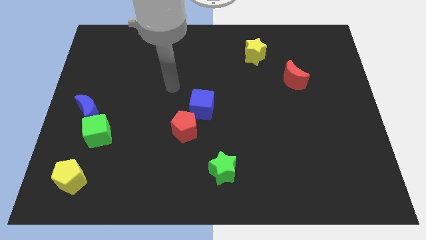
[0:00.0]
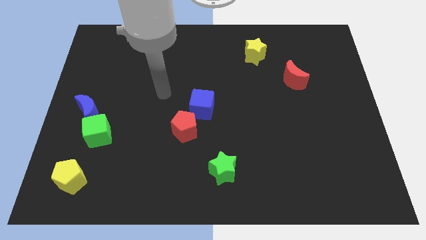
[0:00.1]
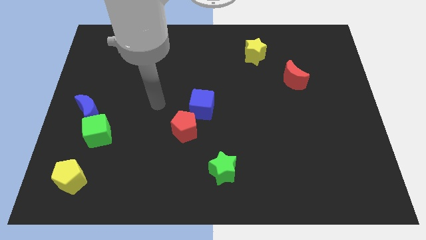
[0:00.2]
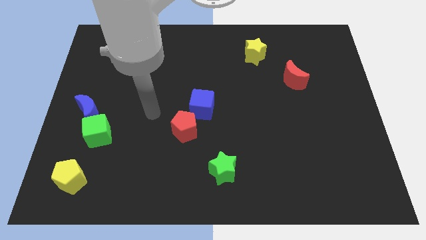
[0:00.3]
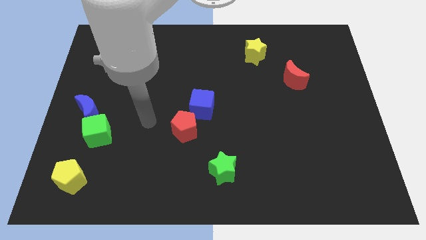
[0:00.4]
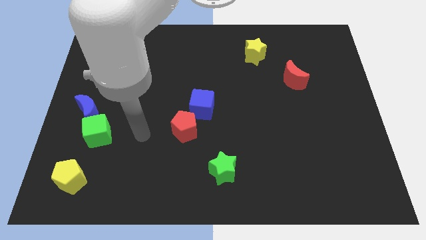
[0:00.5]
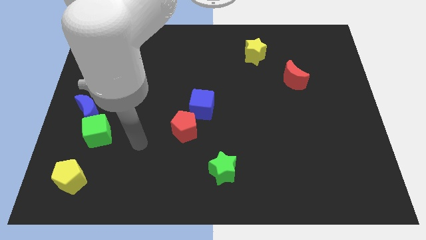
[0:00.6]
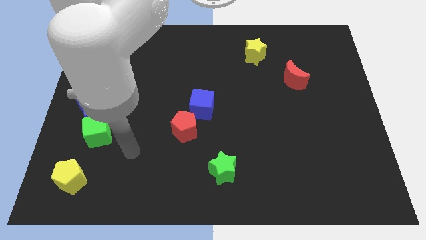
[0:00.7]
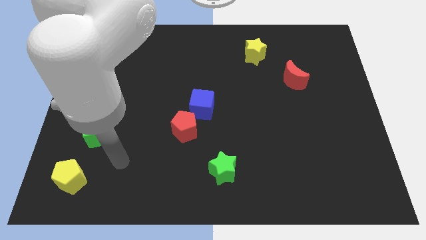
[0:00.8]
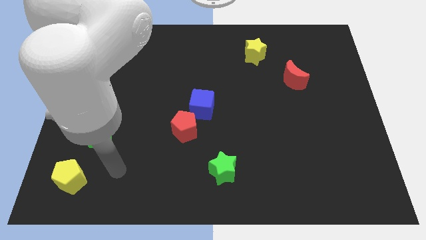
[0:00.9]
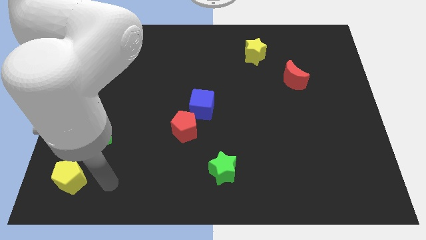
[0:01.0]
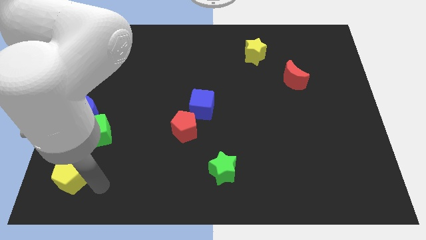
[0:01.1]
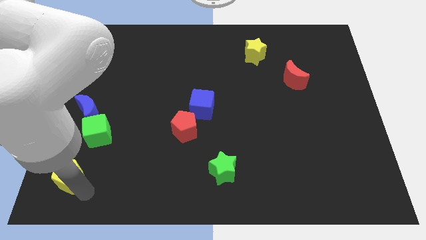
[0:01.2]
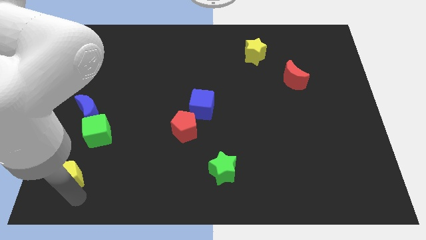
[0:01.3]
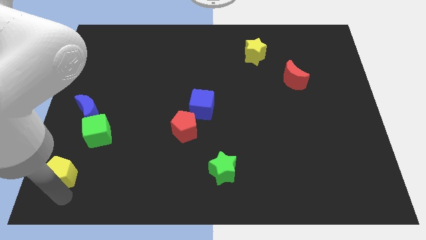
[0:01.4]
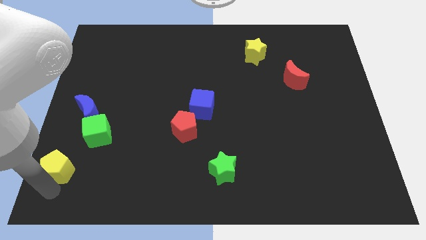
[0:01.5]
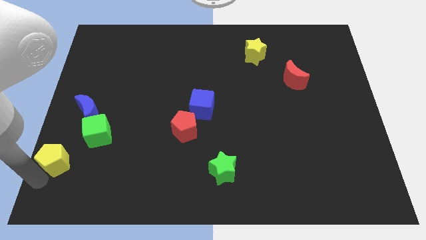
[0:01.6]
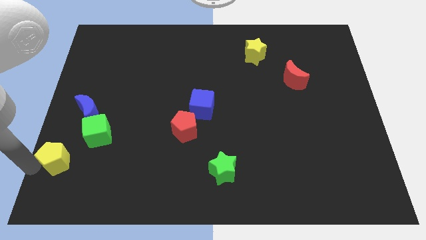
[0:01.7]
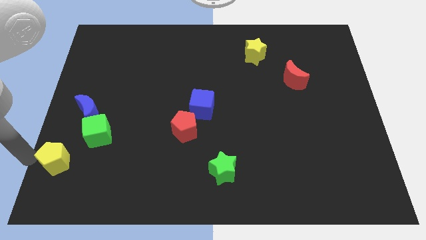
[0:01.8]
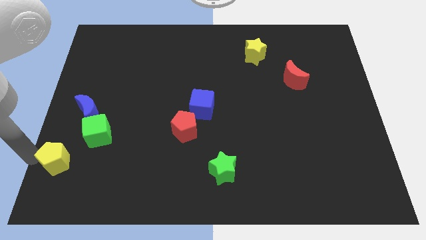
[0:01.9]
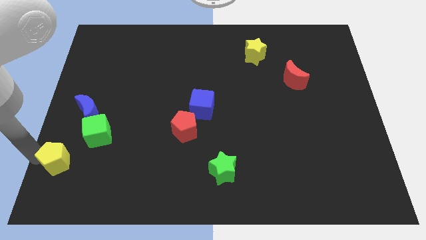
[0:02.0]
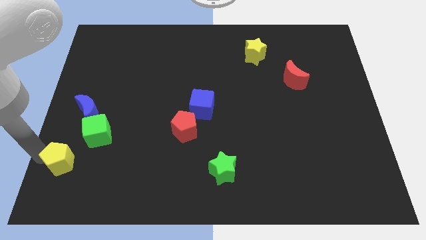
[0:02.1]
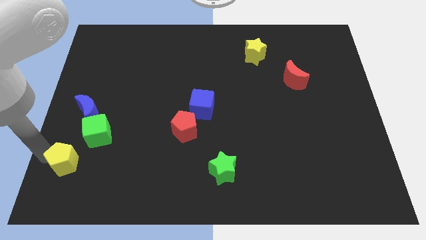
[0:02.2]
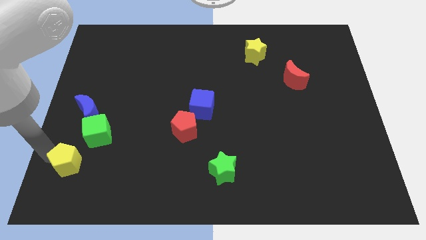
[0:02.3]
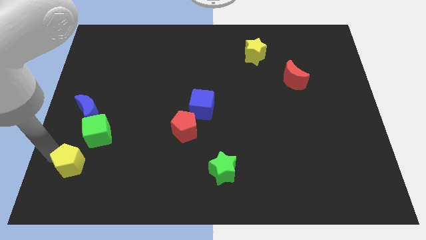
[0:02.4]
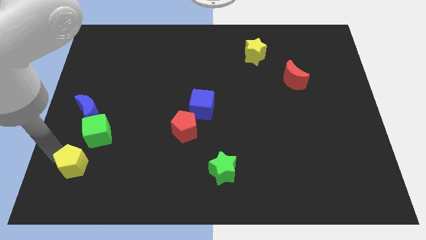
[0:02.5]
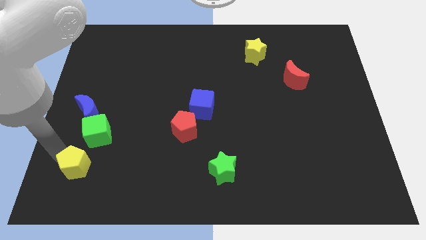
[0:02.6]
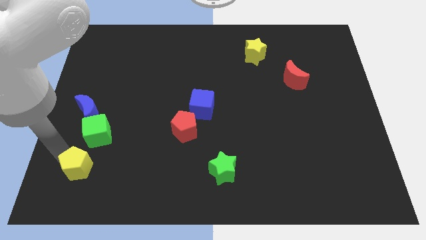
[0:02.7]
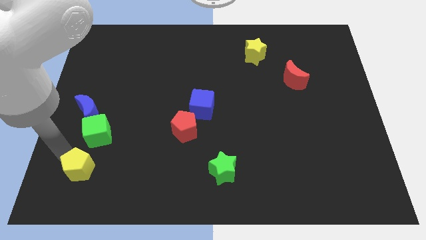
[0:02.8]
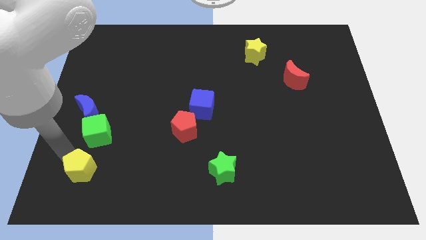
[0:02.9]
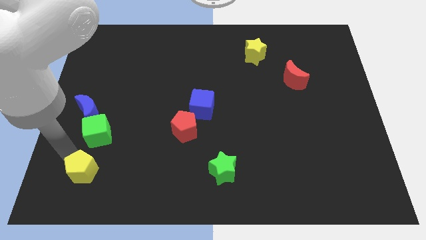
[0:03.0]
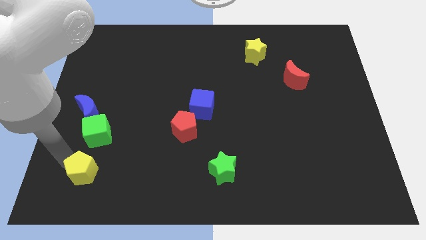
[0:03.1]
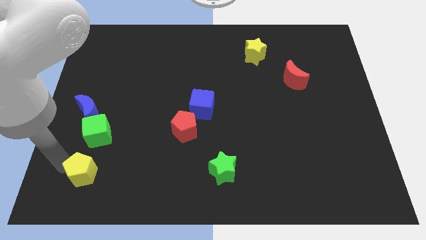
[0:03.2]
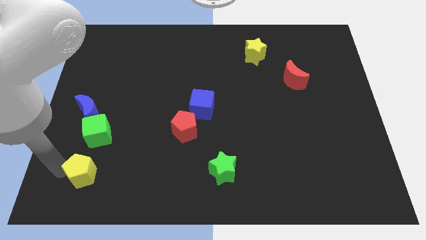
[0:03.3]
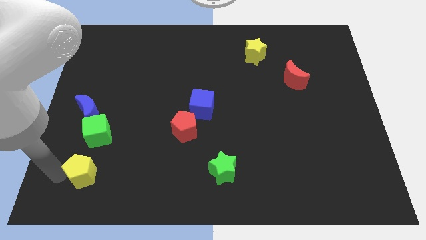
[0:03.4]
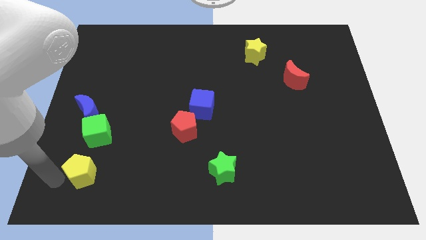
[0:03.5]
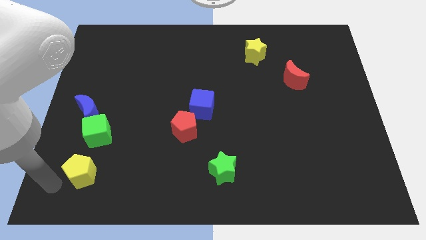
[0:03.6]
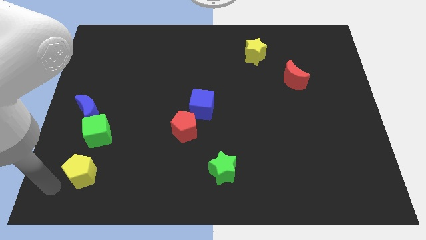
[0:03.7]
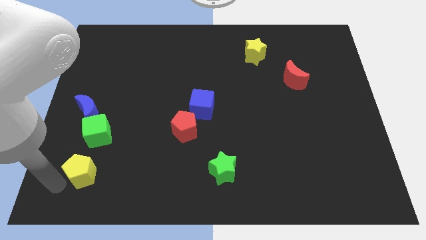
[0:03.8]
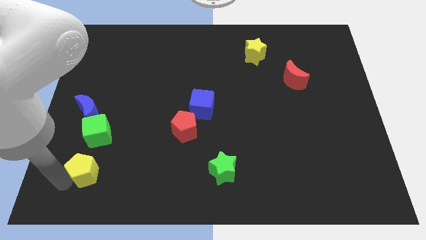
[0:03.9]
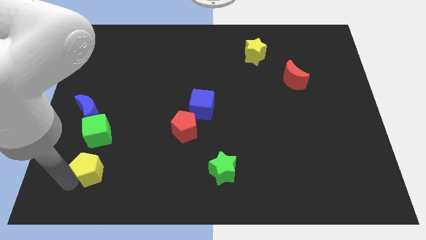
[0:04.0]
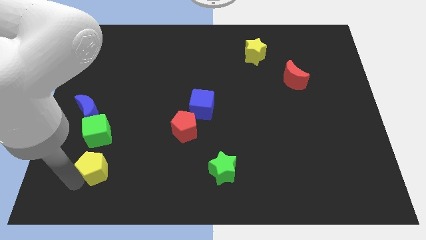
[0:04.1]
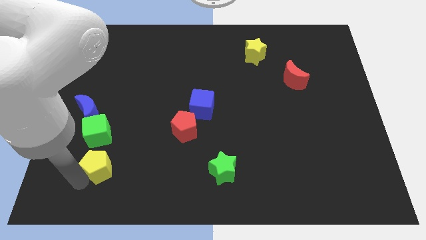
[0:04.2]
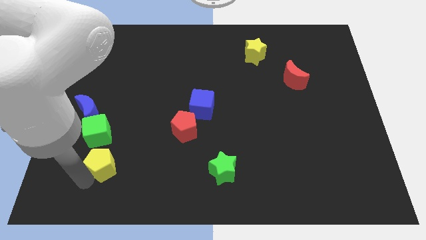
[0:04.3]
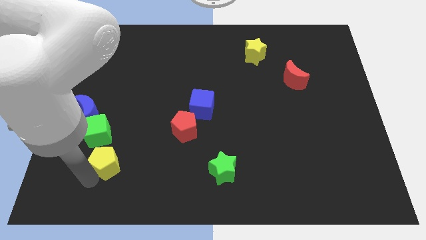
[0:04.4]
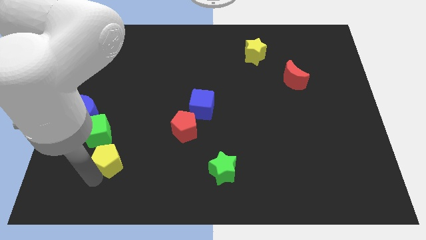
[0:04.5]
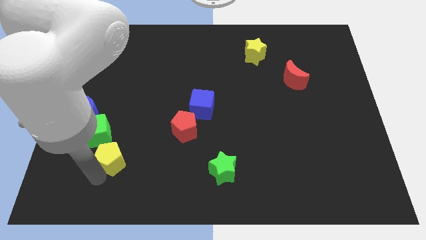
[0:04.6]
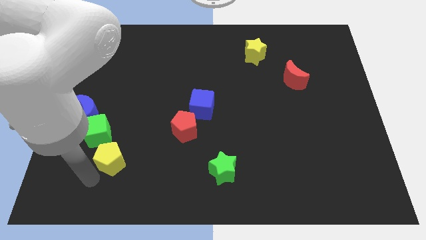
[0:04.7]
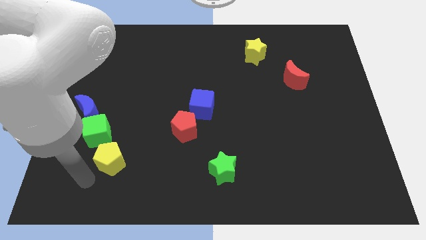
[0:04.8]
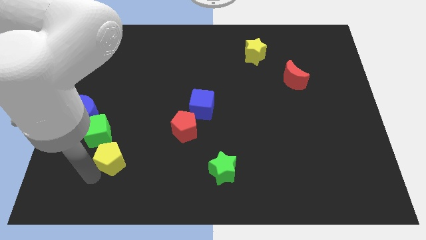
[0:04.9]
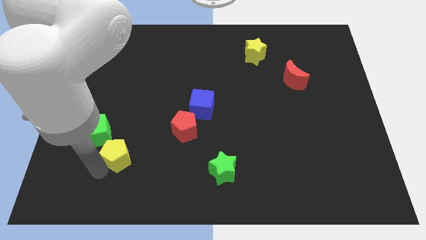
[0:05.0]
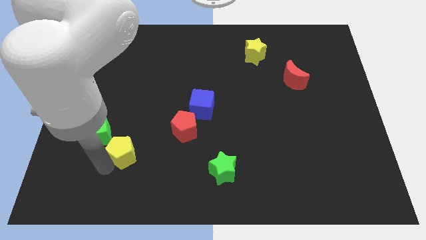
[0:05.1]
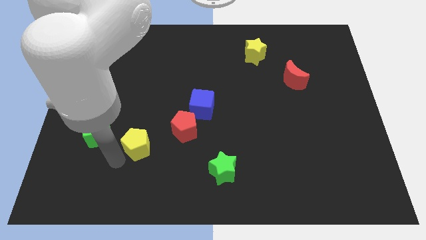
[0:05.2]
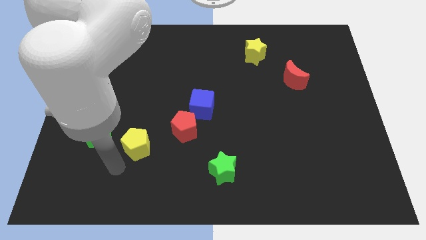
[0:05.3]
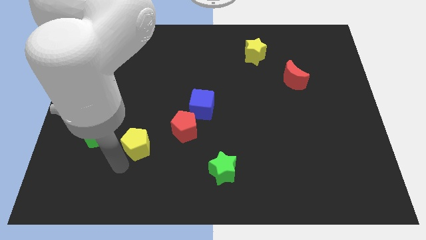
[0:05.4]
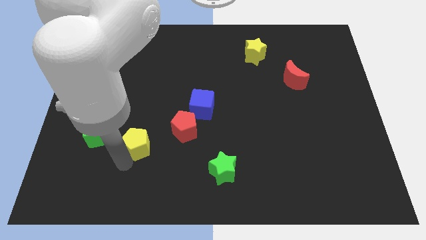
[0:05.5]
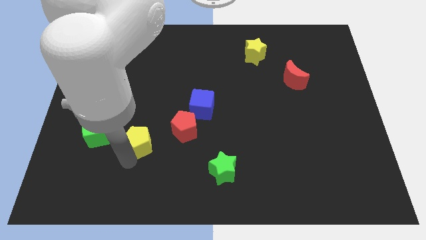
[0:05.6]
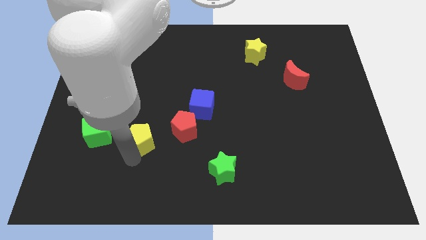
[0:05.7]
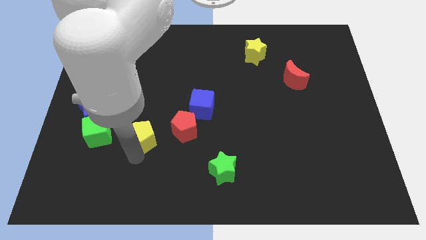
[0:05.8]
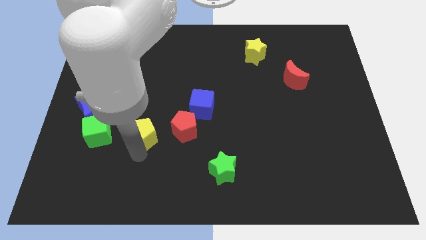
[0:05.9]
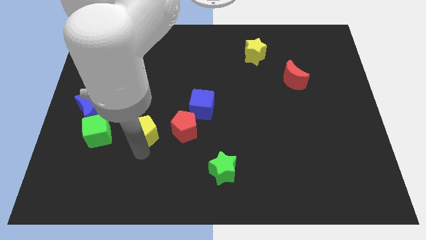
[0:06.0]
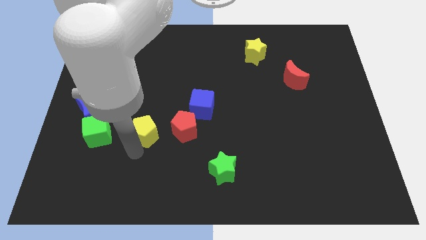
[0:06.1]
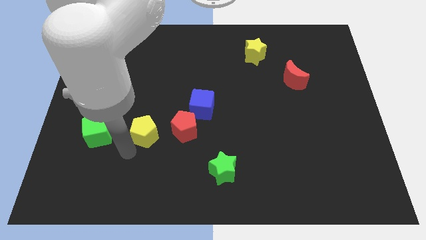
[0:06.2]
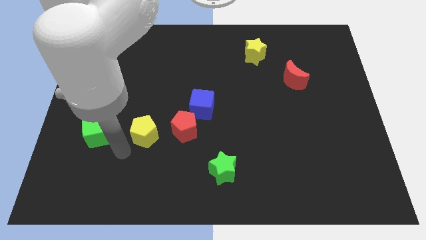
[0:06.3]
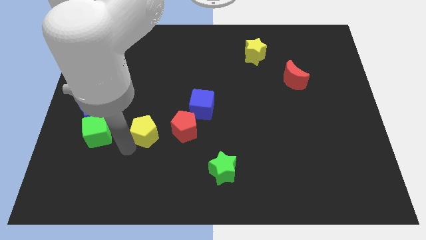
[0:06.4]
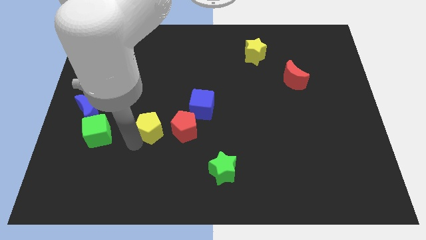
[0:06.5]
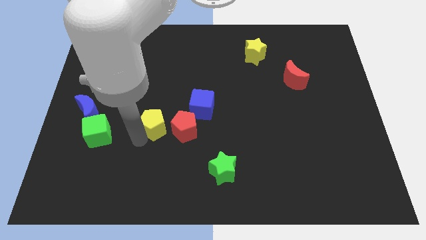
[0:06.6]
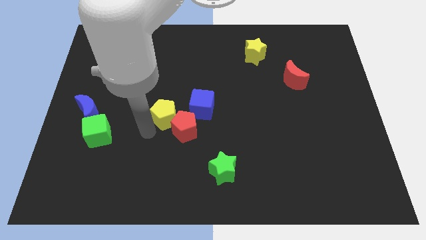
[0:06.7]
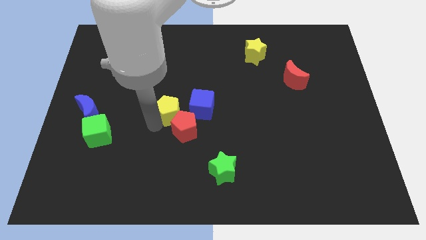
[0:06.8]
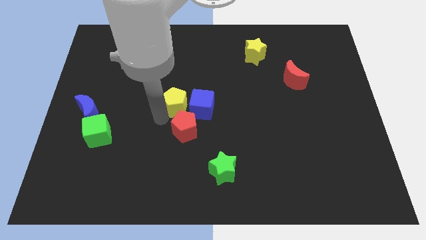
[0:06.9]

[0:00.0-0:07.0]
put the yellow pentagon towards the blue cube
